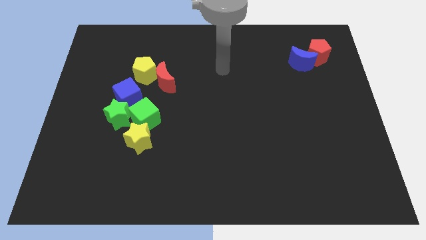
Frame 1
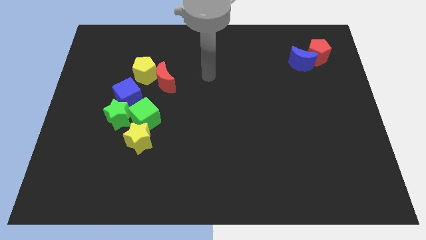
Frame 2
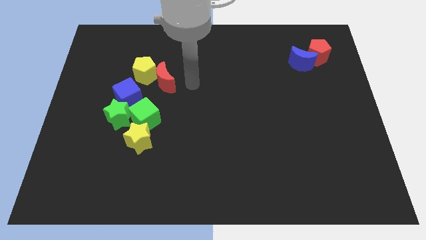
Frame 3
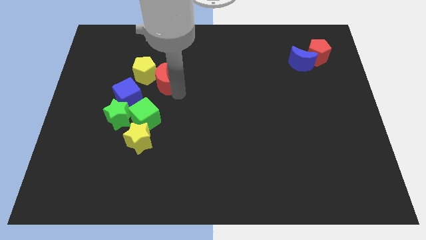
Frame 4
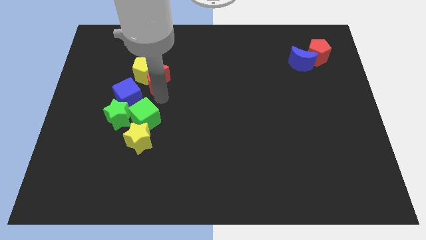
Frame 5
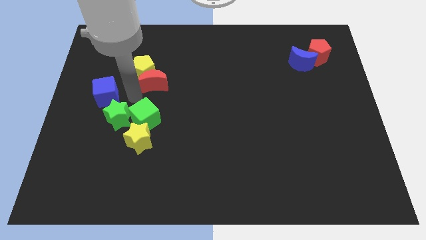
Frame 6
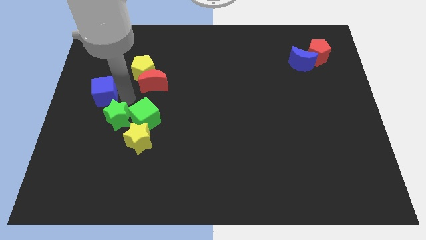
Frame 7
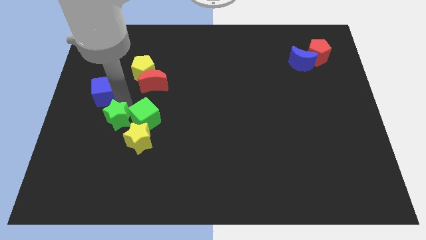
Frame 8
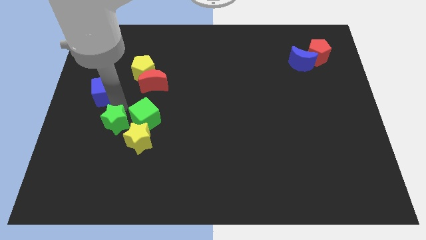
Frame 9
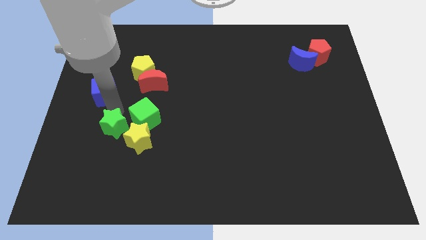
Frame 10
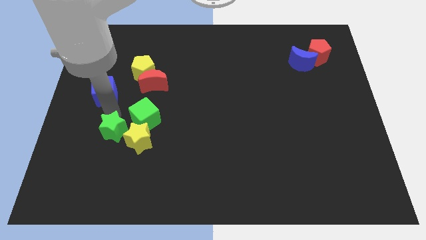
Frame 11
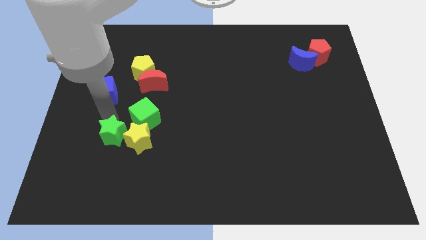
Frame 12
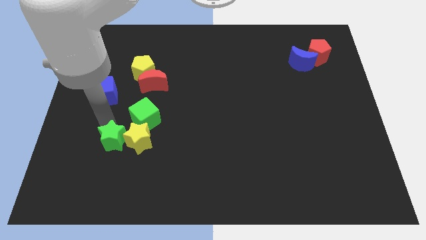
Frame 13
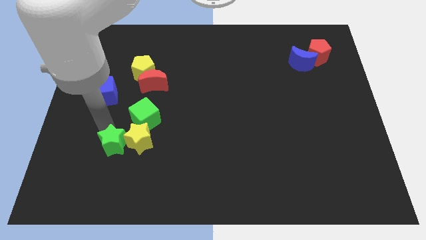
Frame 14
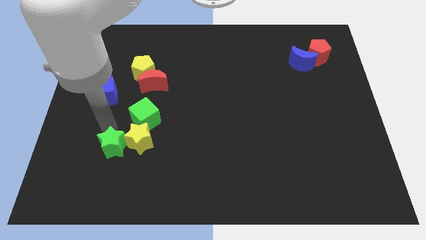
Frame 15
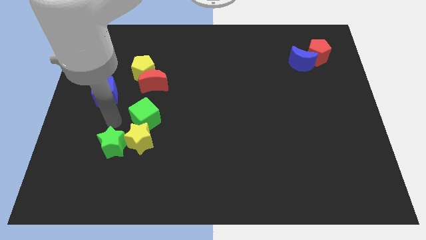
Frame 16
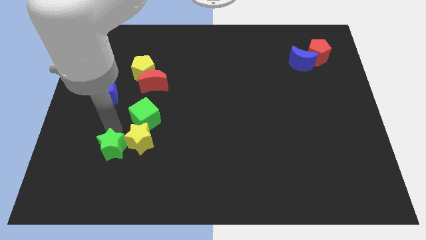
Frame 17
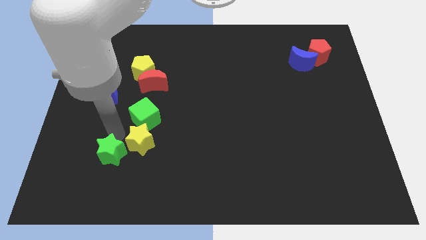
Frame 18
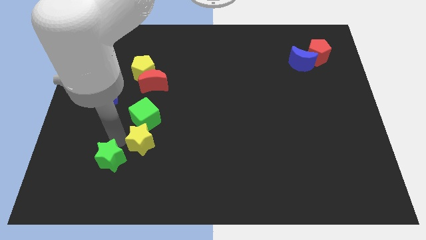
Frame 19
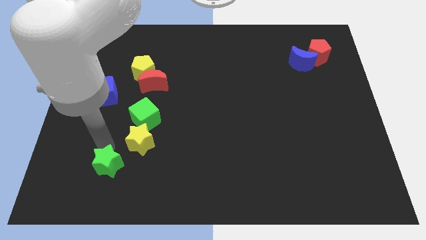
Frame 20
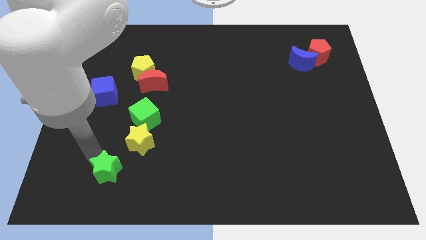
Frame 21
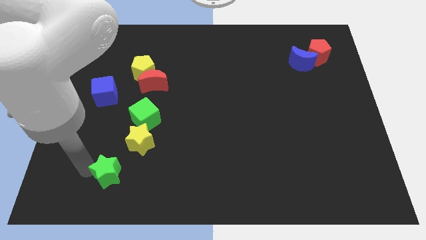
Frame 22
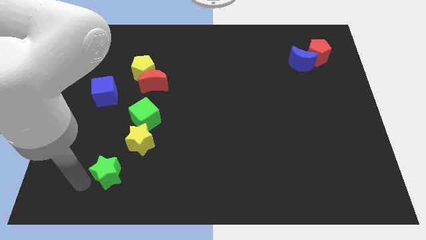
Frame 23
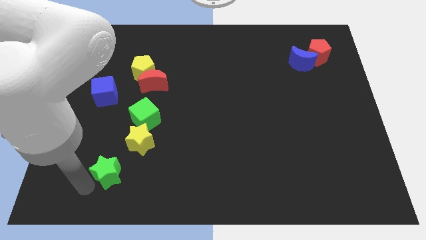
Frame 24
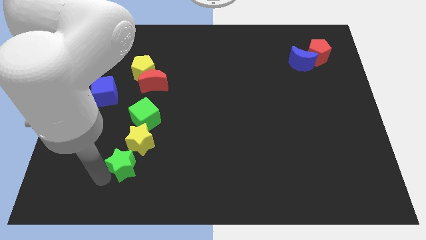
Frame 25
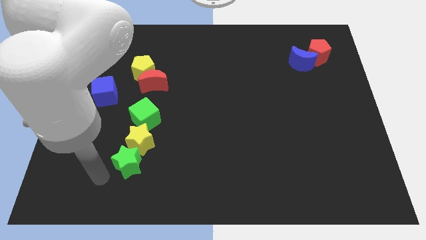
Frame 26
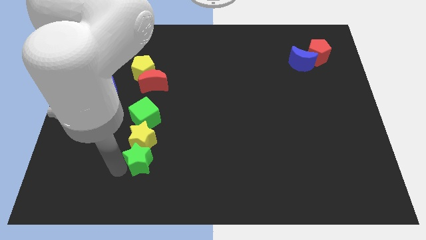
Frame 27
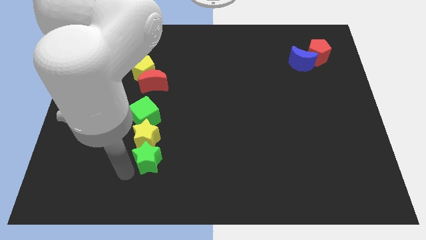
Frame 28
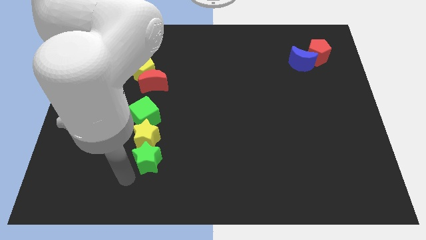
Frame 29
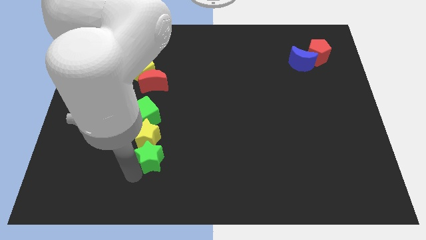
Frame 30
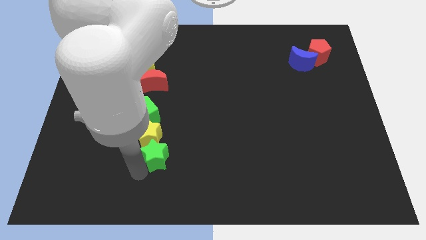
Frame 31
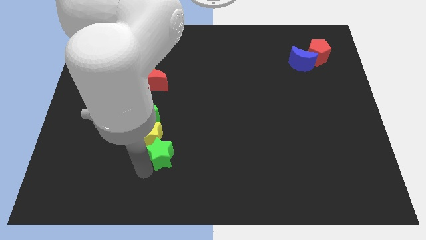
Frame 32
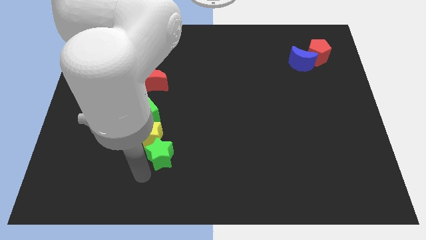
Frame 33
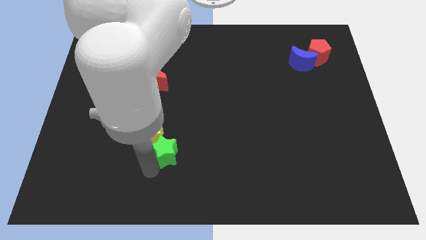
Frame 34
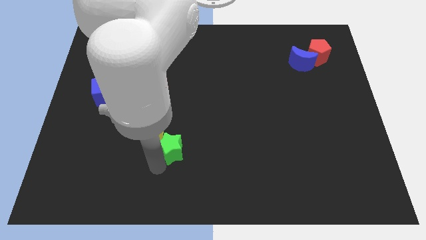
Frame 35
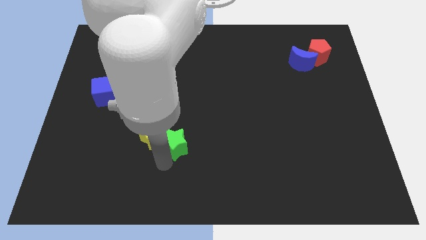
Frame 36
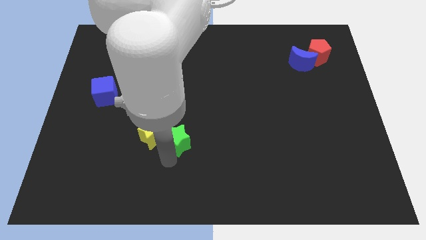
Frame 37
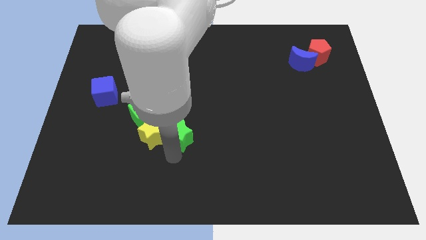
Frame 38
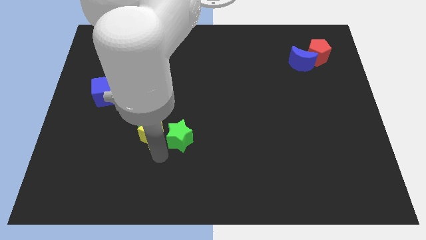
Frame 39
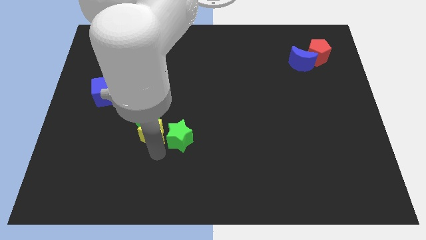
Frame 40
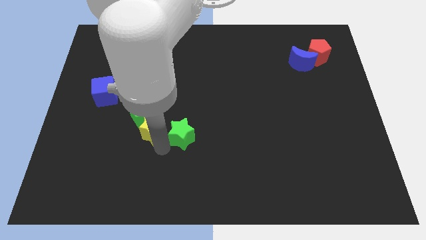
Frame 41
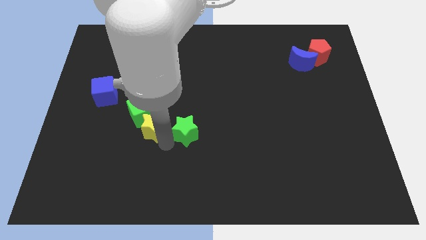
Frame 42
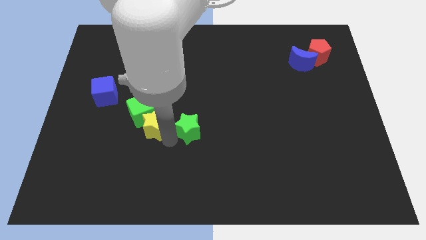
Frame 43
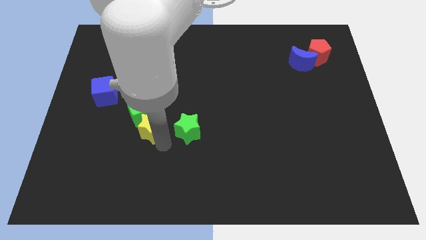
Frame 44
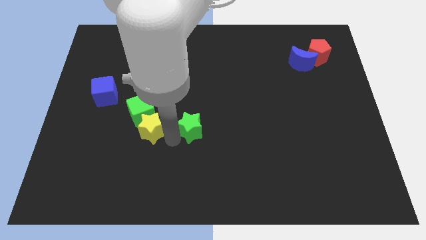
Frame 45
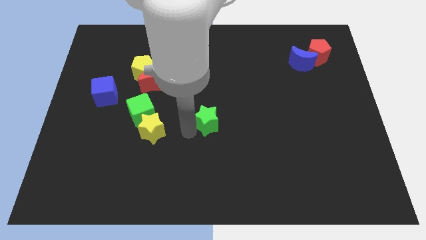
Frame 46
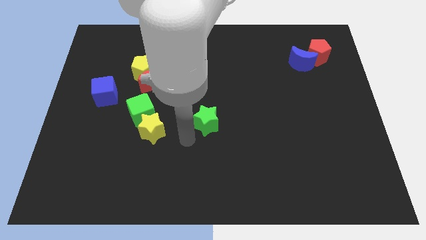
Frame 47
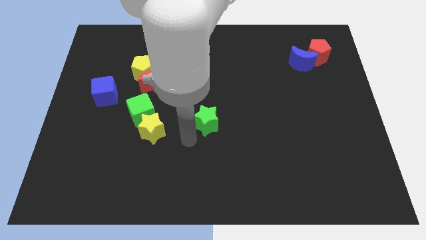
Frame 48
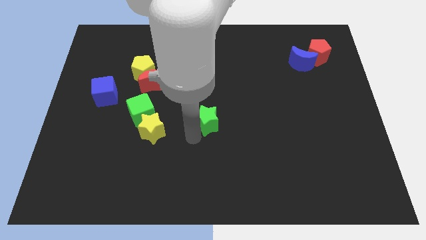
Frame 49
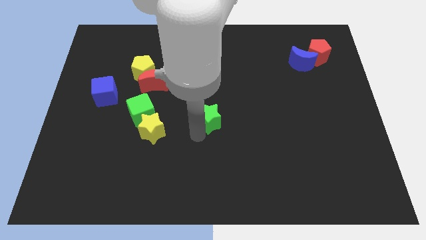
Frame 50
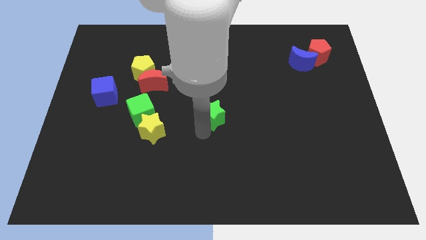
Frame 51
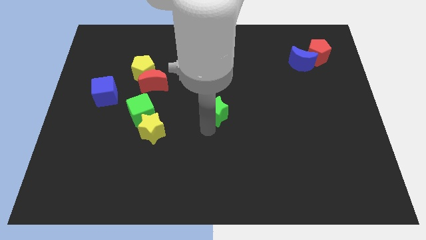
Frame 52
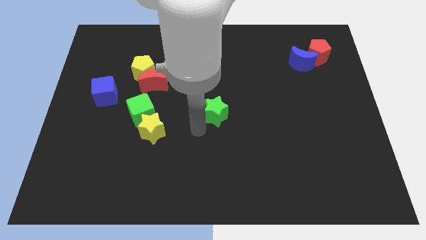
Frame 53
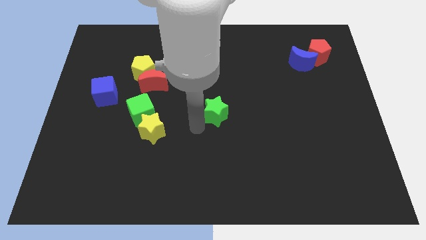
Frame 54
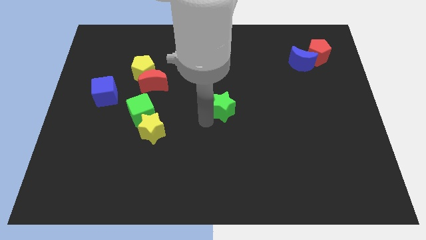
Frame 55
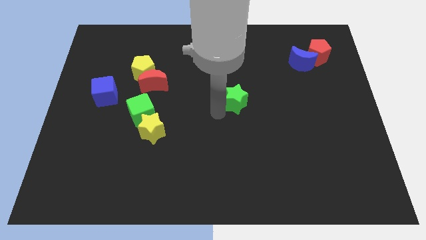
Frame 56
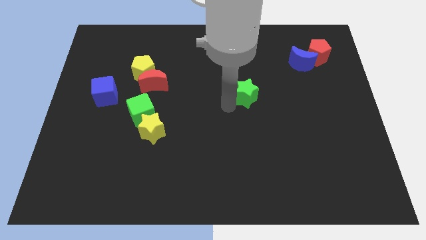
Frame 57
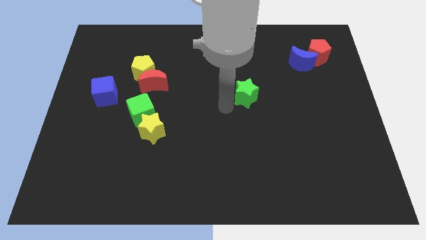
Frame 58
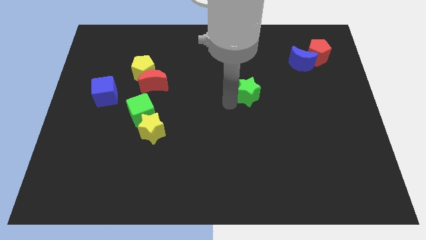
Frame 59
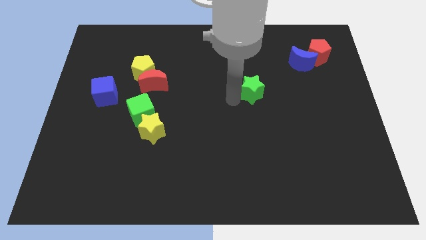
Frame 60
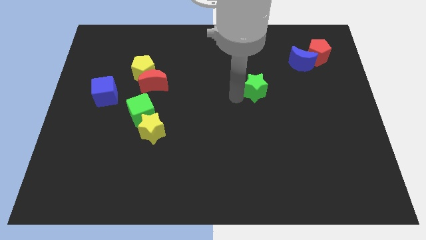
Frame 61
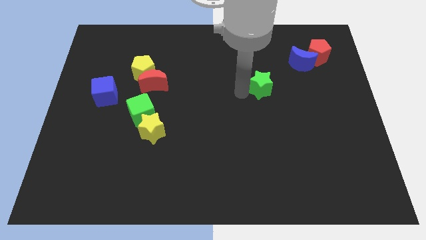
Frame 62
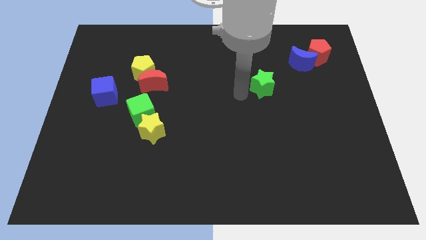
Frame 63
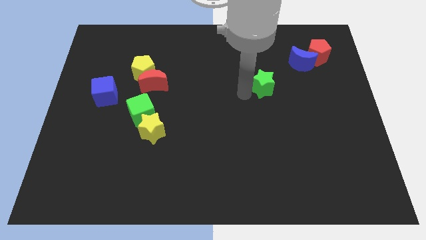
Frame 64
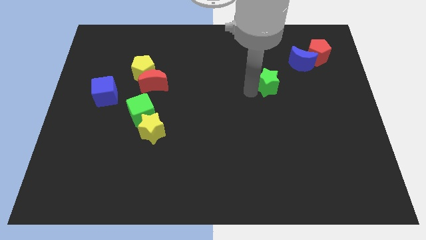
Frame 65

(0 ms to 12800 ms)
push the green star to the bottom left of the blue moon

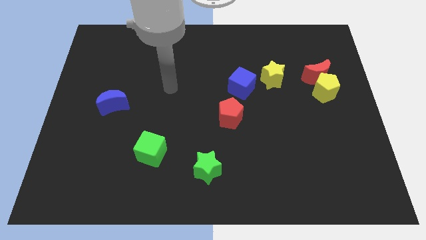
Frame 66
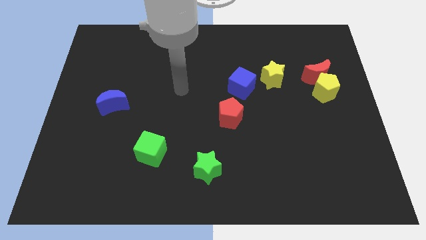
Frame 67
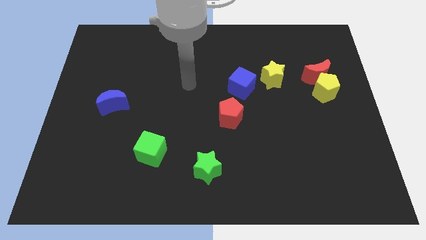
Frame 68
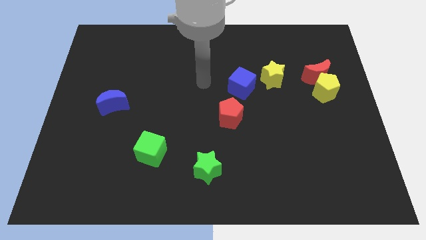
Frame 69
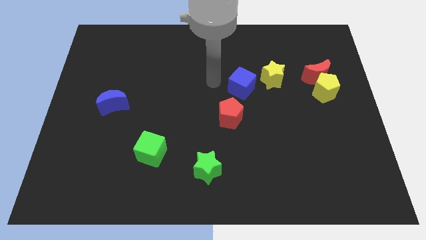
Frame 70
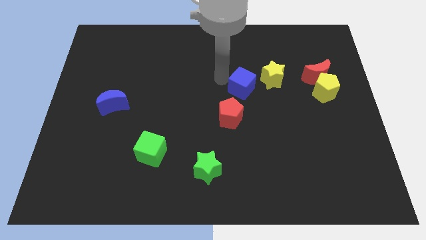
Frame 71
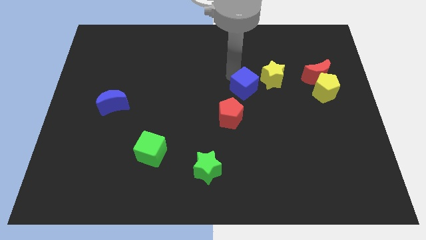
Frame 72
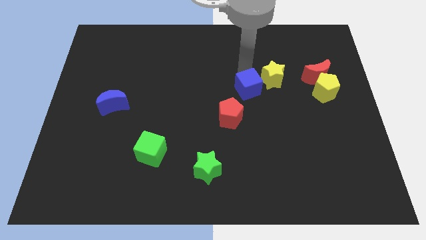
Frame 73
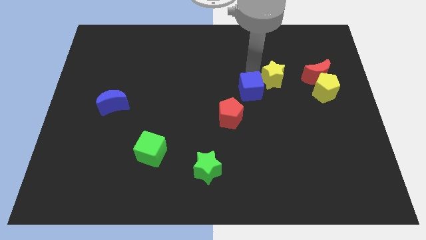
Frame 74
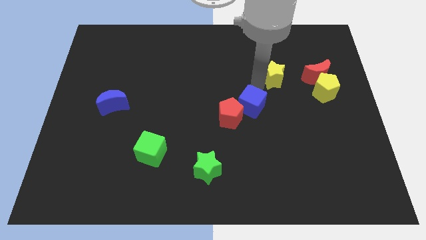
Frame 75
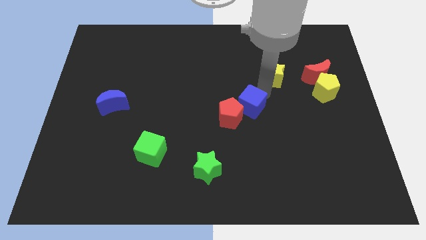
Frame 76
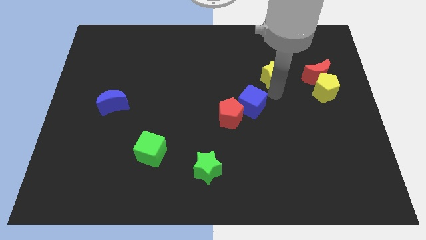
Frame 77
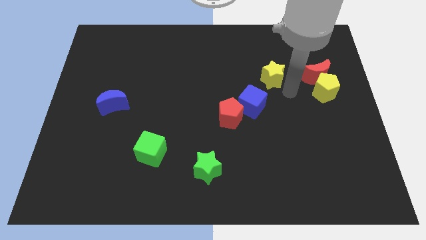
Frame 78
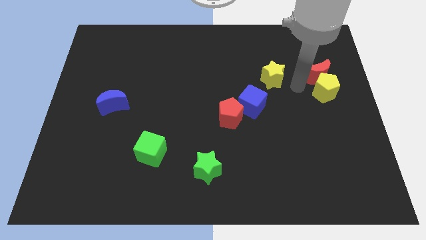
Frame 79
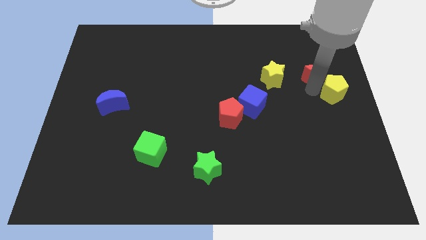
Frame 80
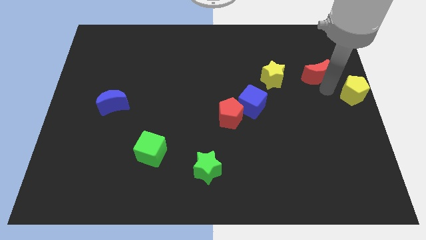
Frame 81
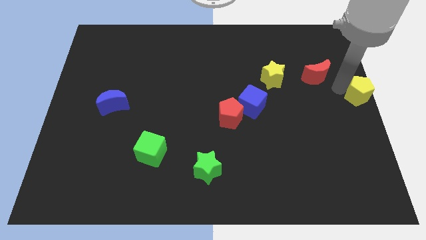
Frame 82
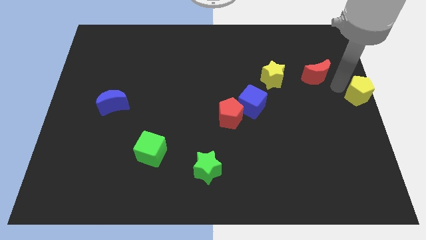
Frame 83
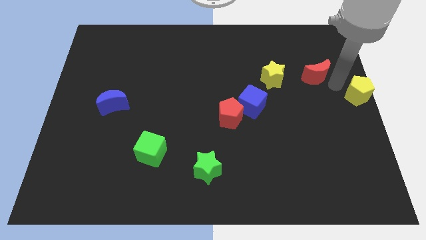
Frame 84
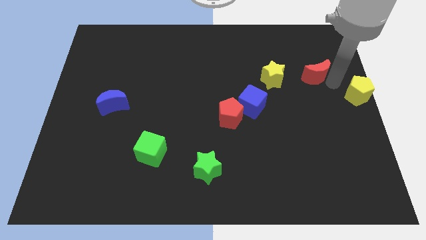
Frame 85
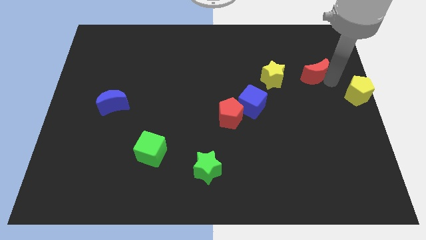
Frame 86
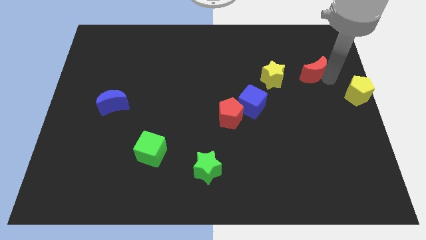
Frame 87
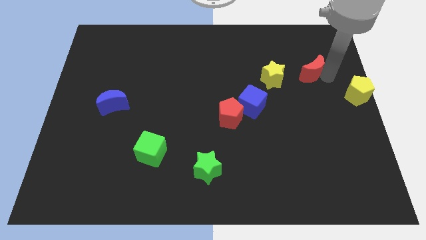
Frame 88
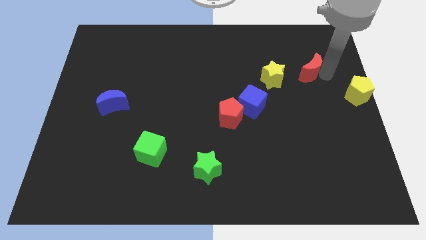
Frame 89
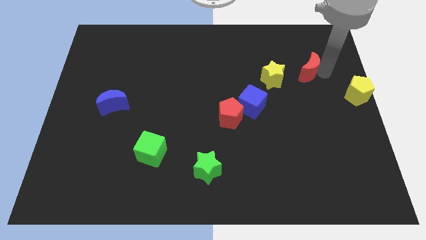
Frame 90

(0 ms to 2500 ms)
push the red moon to the top right side of the yellow star
